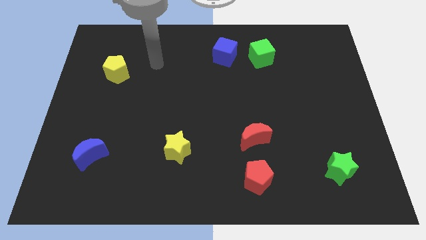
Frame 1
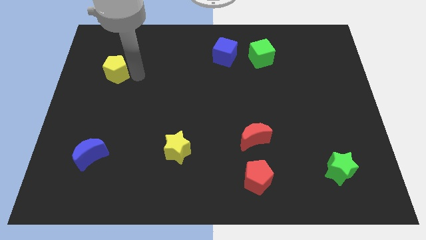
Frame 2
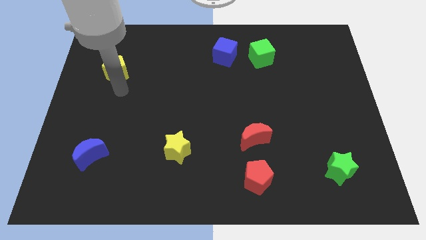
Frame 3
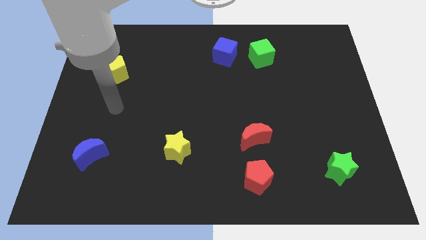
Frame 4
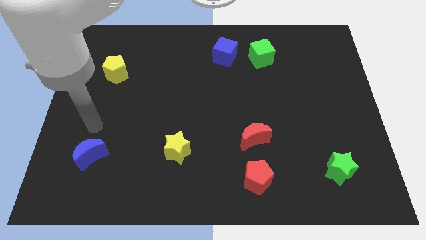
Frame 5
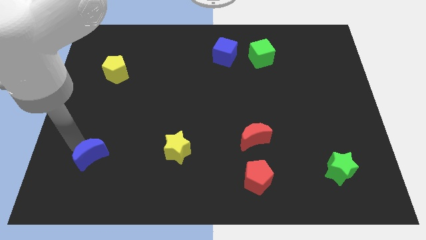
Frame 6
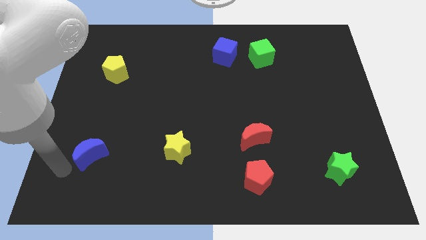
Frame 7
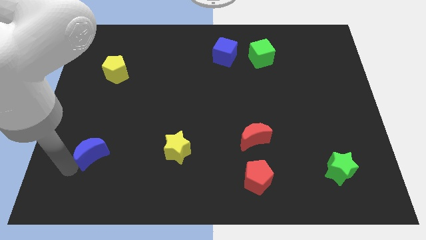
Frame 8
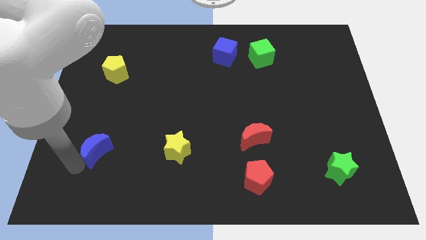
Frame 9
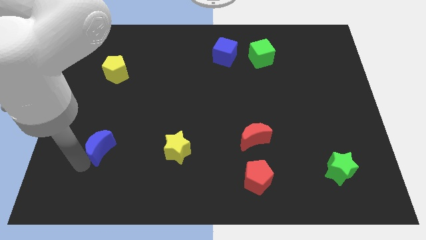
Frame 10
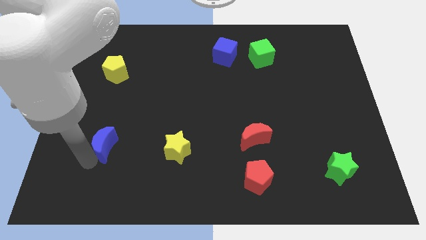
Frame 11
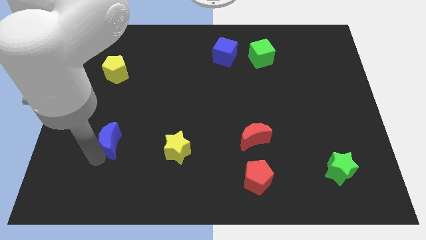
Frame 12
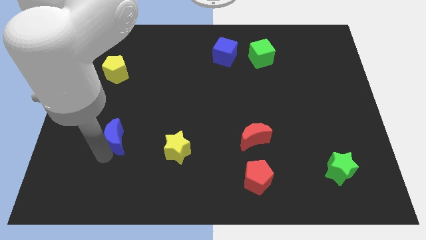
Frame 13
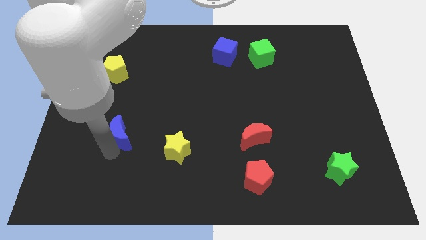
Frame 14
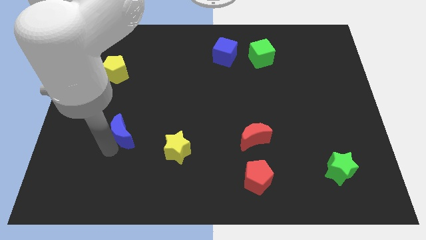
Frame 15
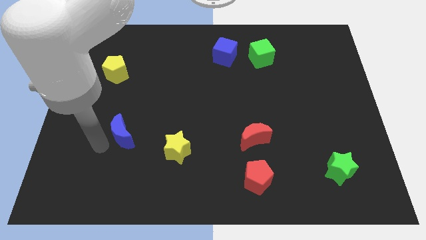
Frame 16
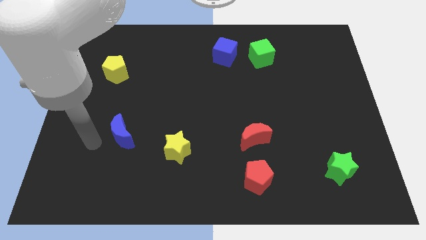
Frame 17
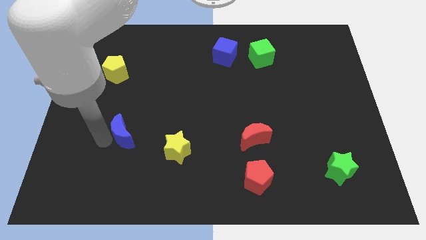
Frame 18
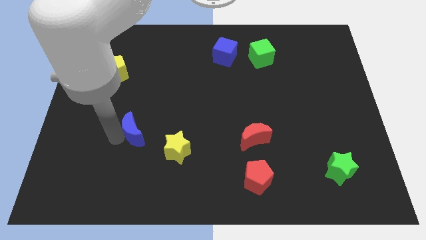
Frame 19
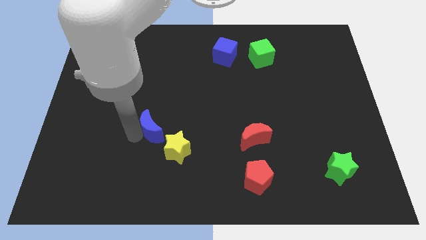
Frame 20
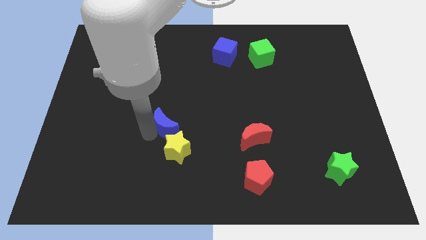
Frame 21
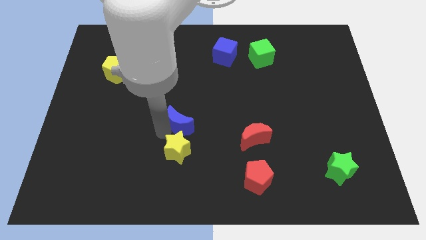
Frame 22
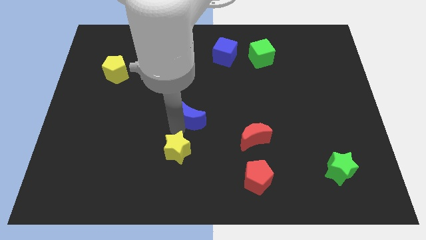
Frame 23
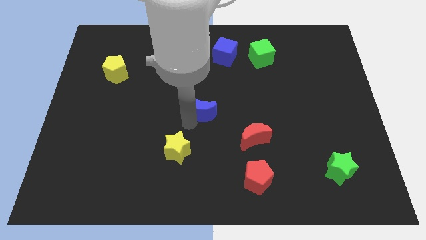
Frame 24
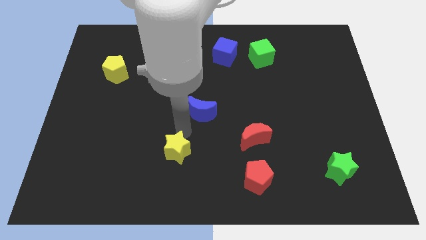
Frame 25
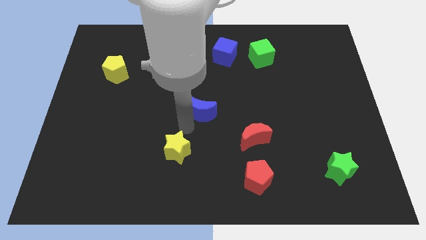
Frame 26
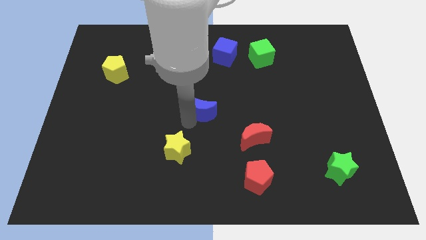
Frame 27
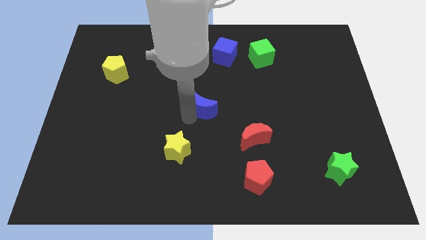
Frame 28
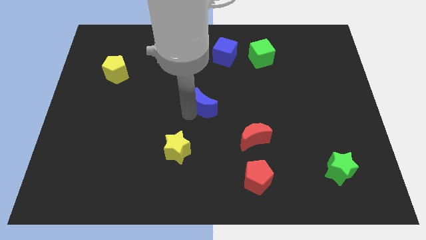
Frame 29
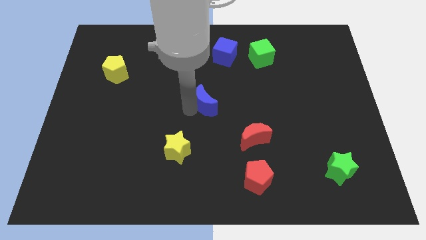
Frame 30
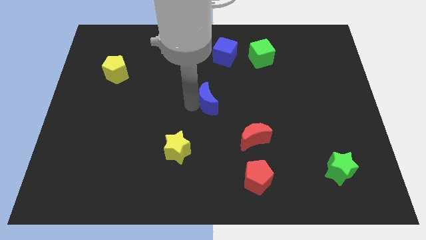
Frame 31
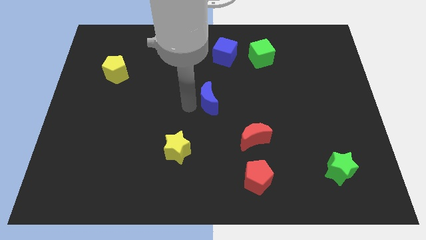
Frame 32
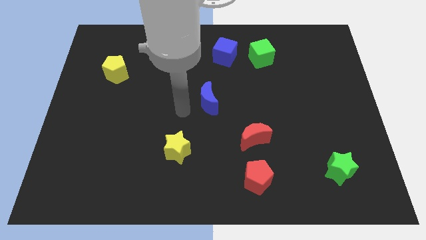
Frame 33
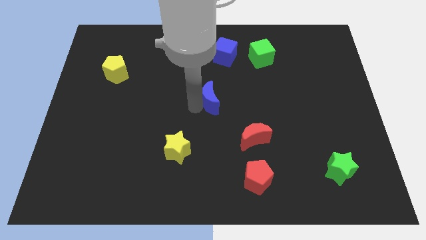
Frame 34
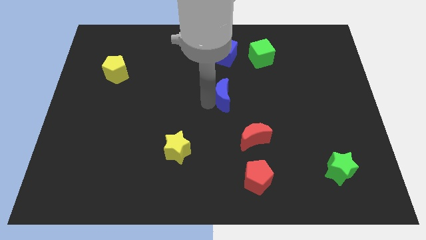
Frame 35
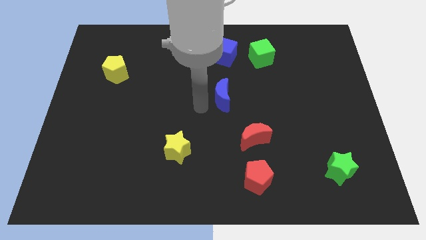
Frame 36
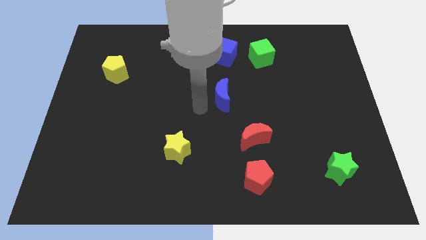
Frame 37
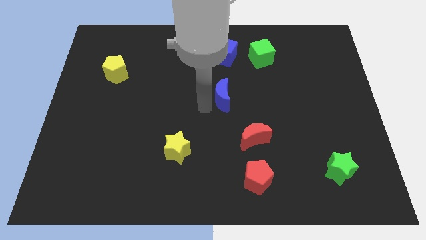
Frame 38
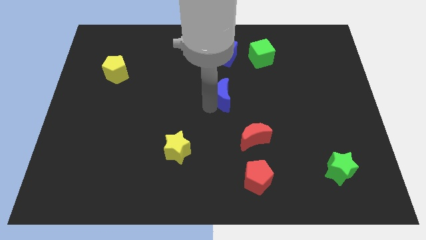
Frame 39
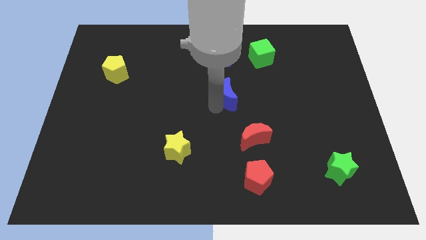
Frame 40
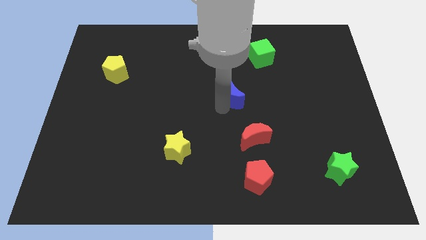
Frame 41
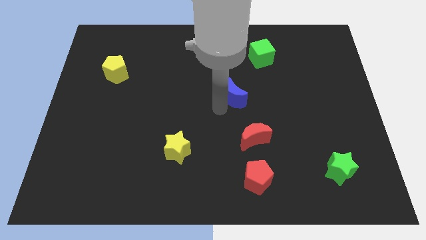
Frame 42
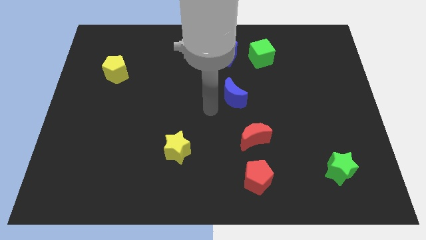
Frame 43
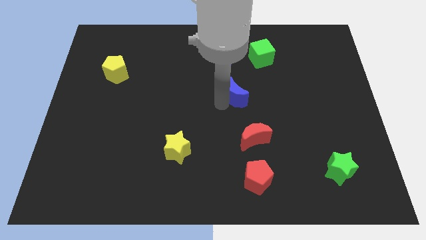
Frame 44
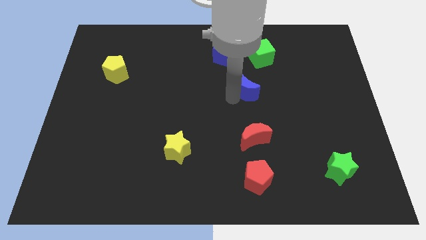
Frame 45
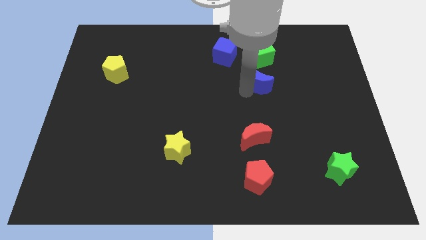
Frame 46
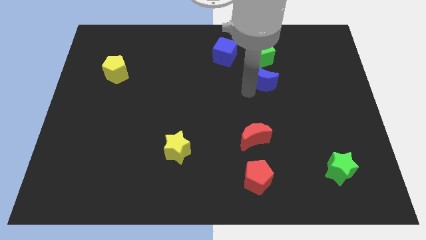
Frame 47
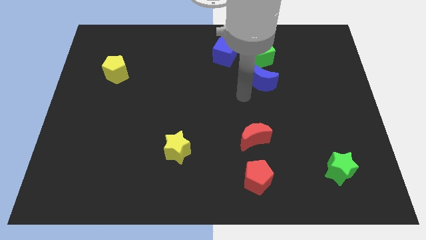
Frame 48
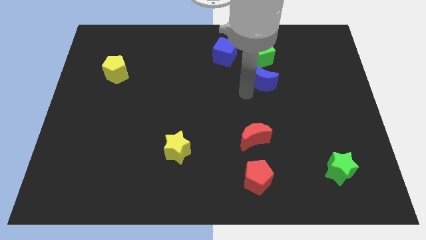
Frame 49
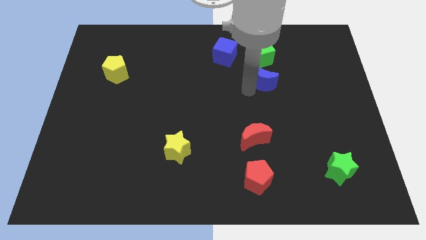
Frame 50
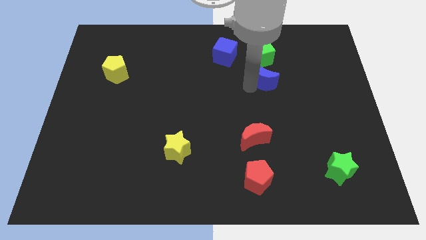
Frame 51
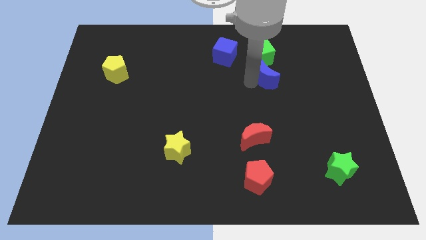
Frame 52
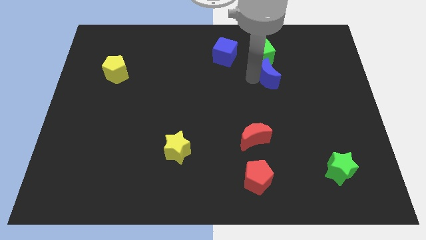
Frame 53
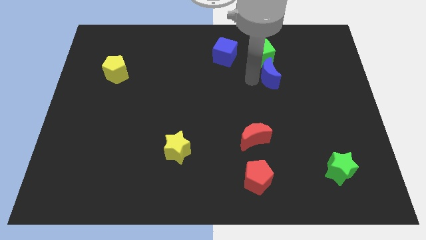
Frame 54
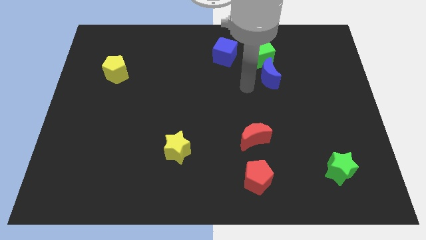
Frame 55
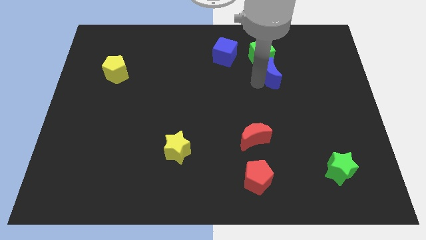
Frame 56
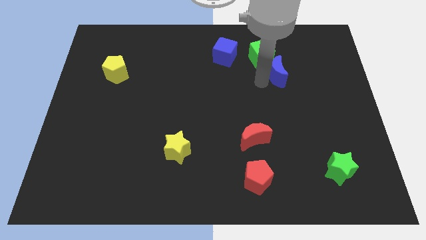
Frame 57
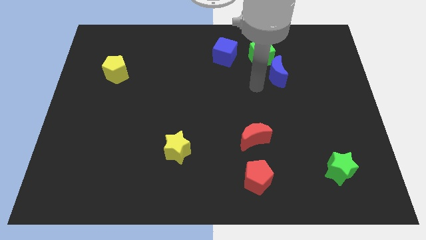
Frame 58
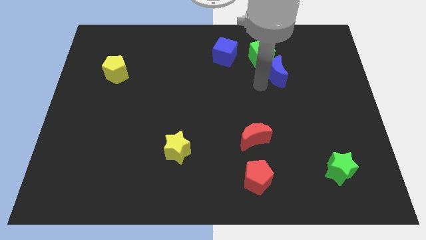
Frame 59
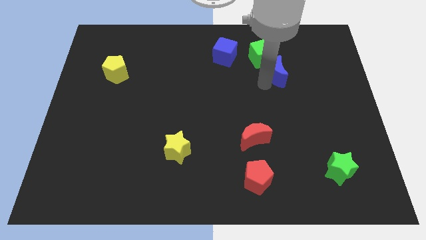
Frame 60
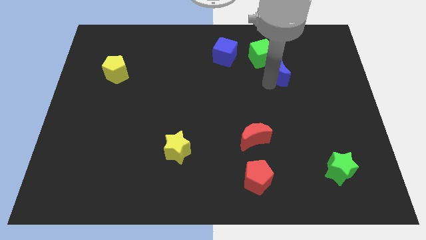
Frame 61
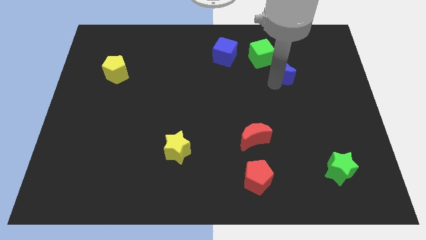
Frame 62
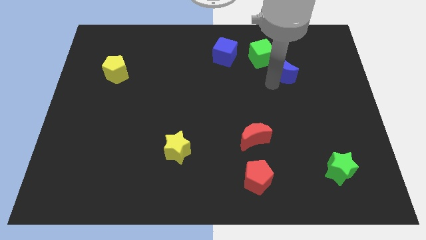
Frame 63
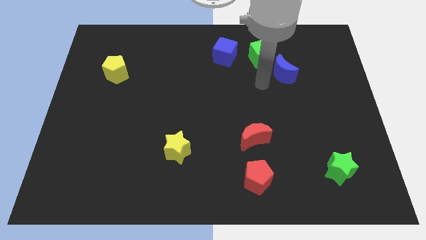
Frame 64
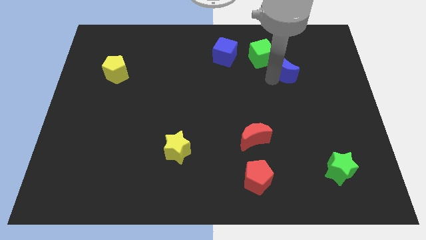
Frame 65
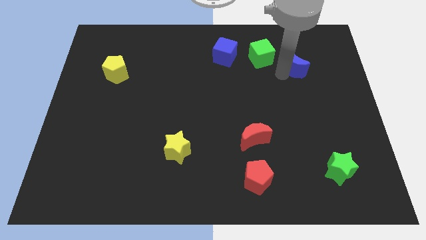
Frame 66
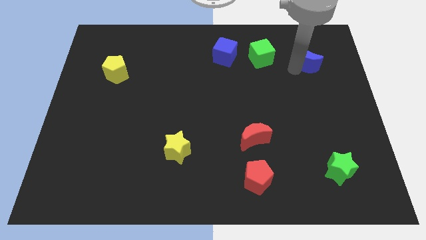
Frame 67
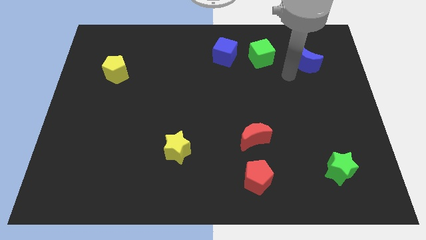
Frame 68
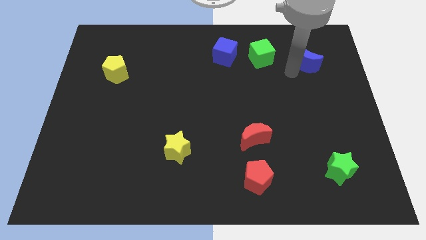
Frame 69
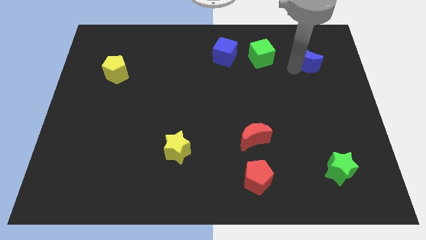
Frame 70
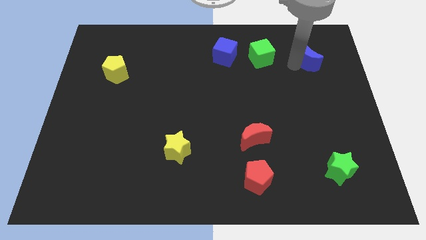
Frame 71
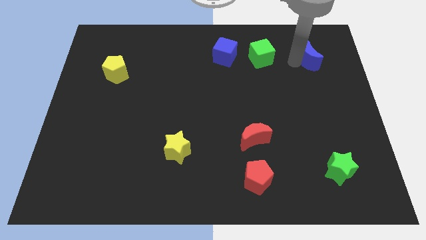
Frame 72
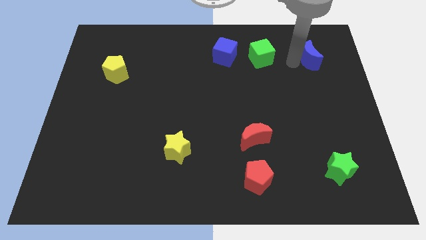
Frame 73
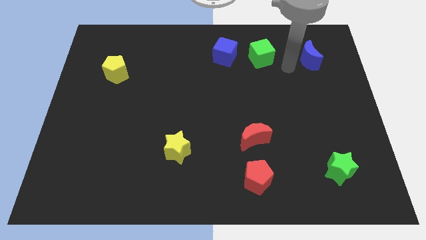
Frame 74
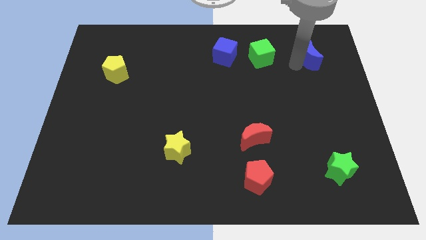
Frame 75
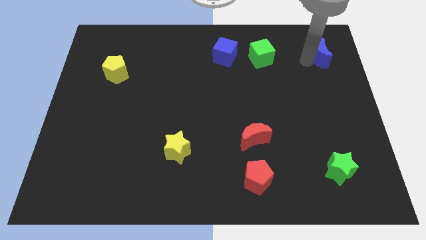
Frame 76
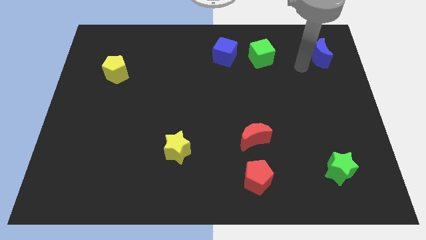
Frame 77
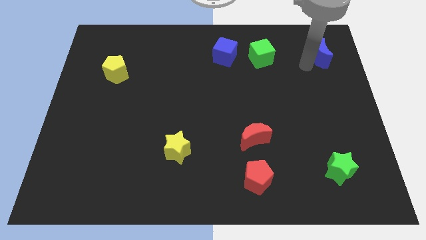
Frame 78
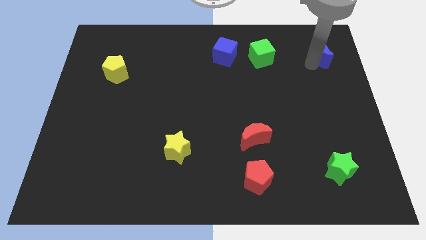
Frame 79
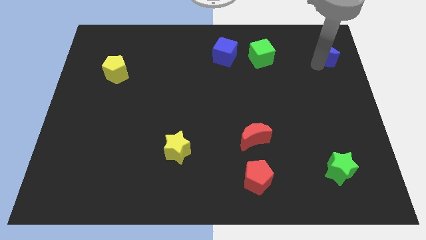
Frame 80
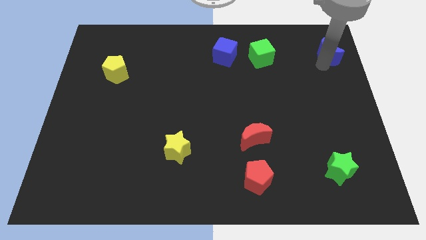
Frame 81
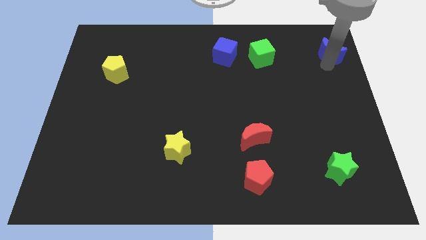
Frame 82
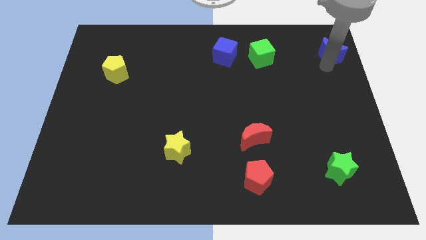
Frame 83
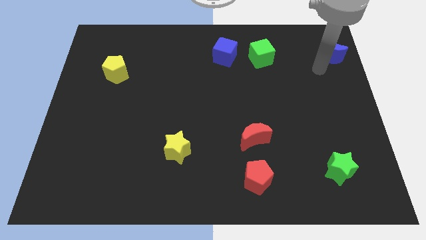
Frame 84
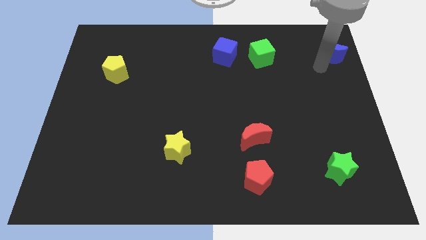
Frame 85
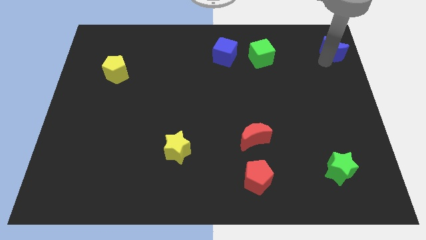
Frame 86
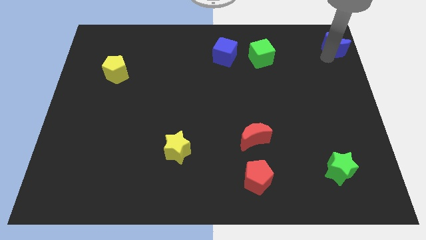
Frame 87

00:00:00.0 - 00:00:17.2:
put the blue moon to the top right of the board
